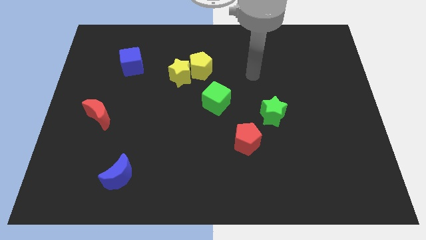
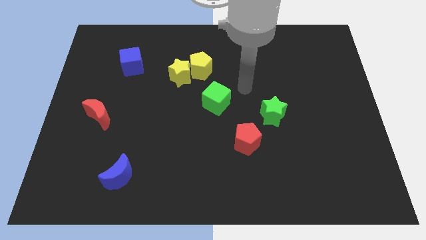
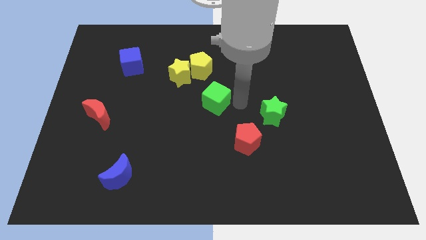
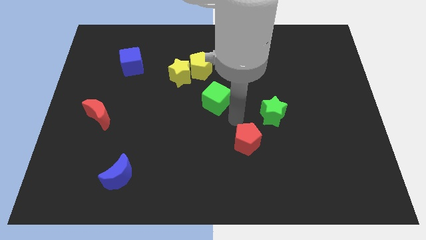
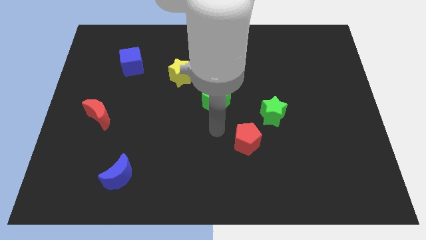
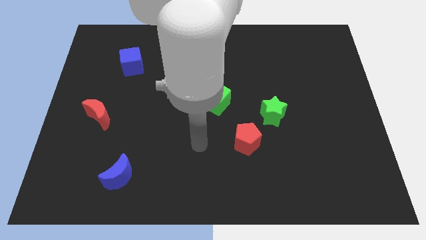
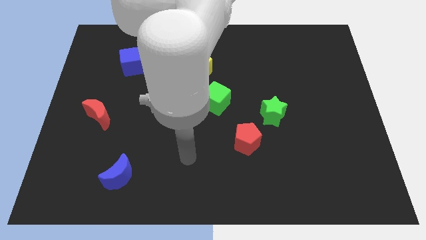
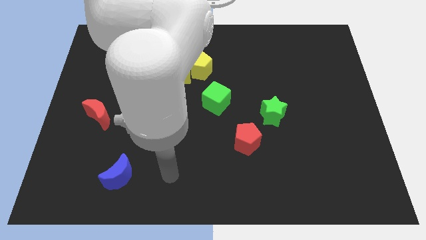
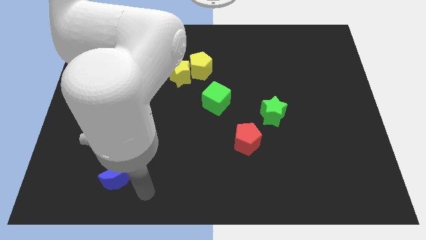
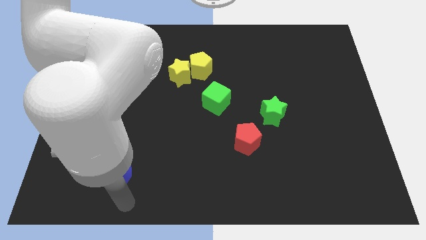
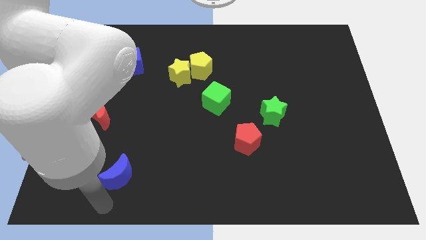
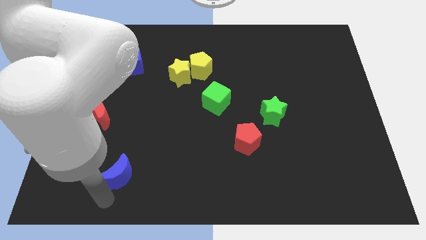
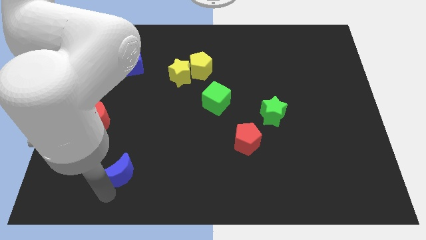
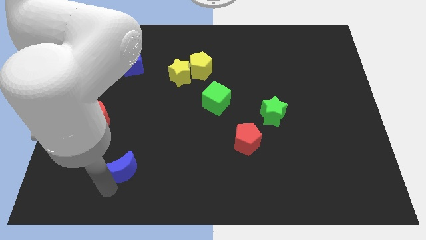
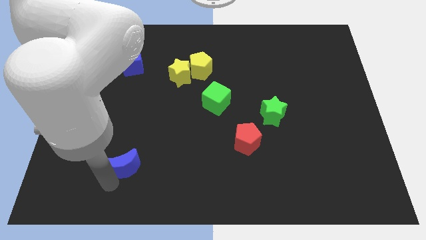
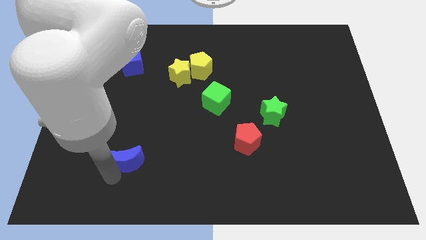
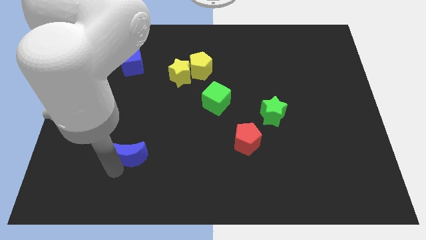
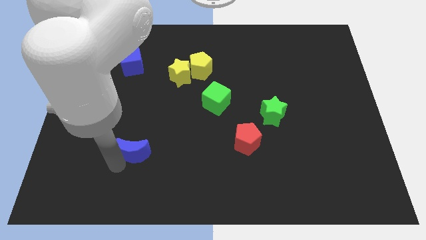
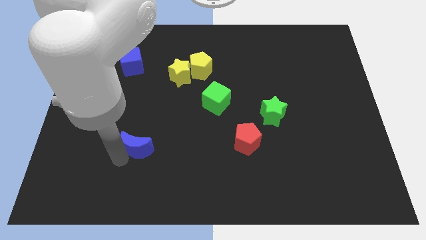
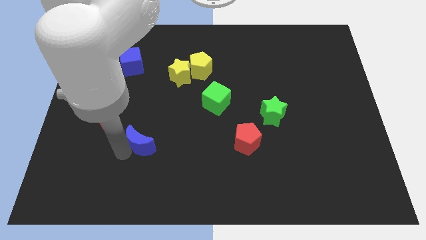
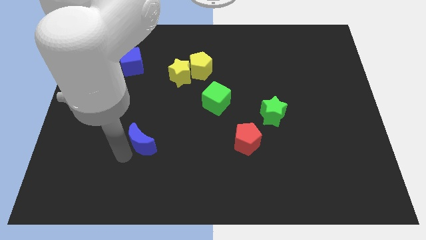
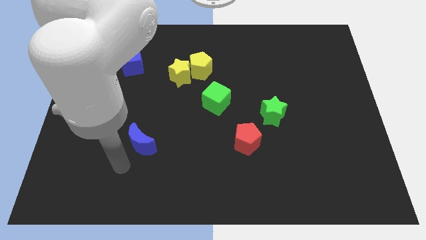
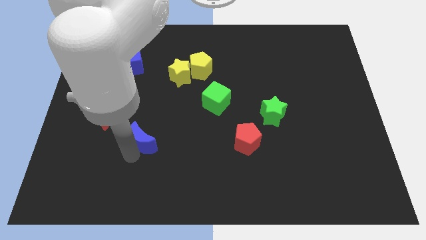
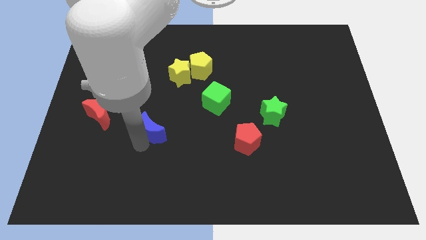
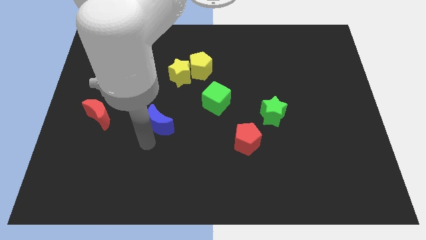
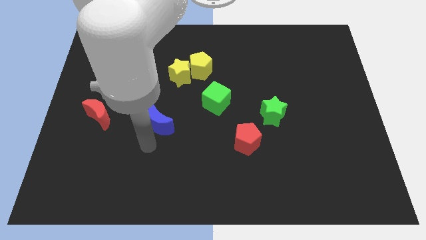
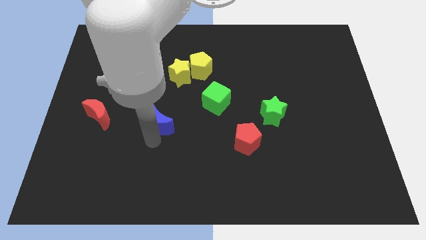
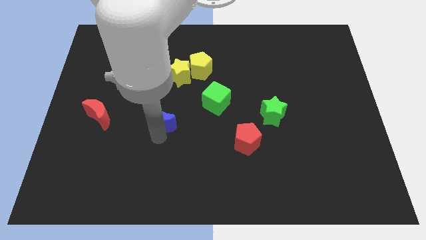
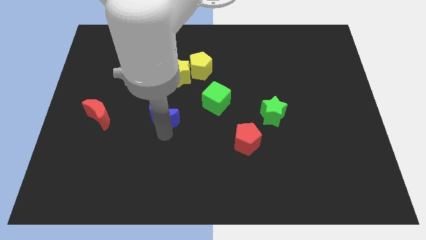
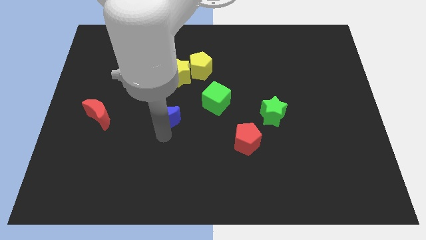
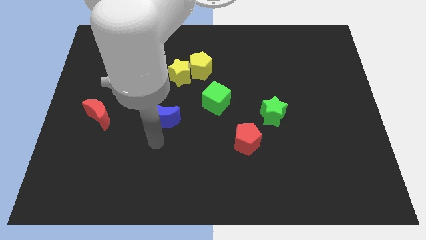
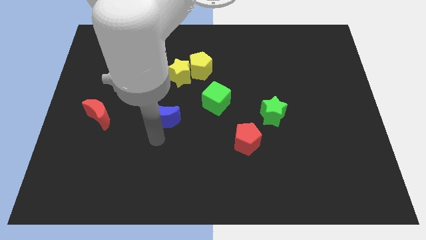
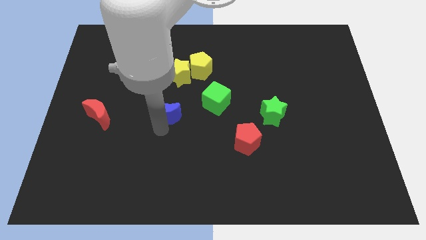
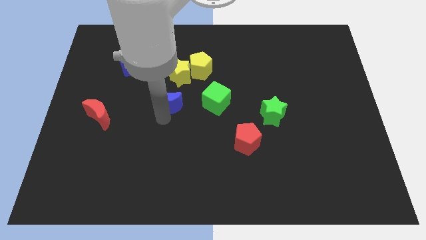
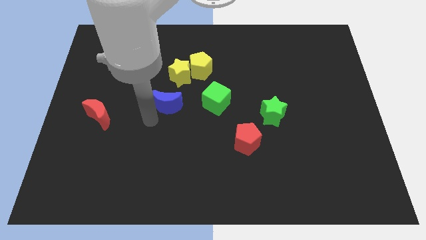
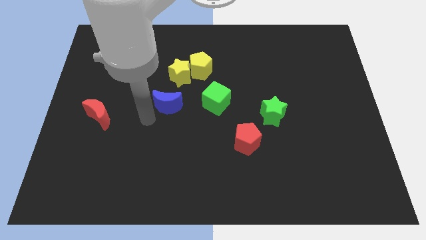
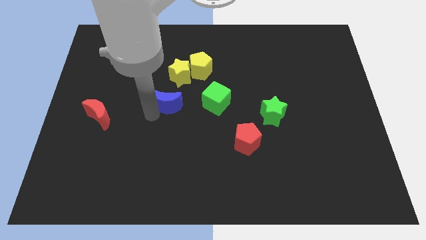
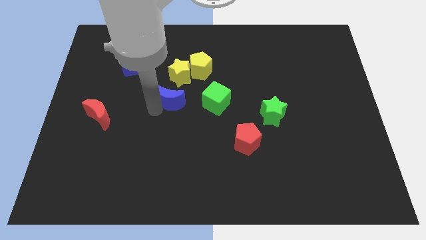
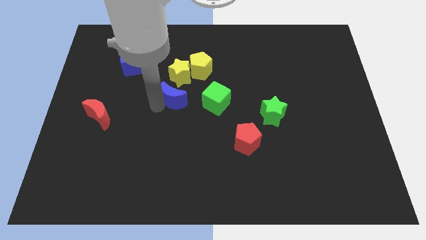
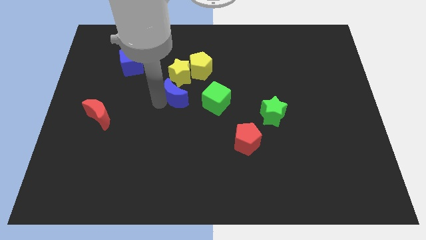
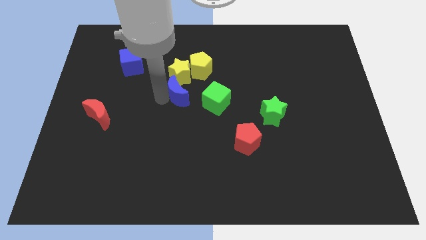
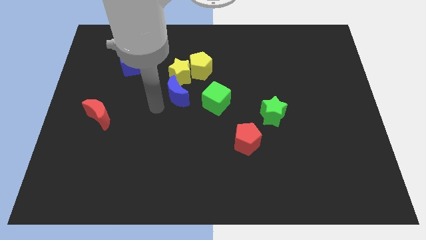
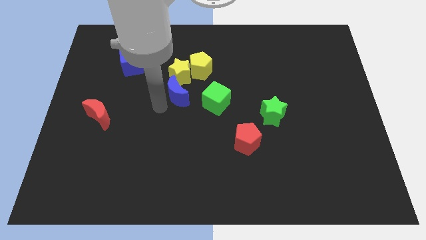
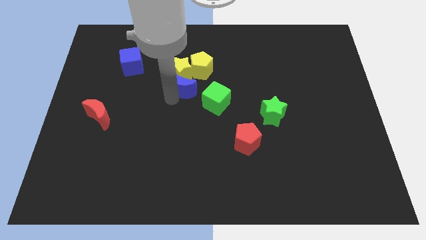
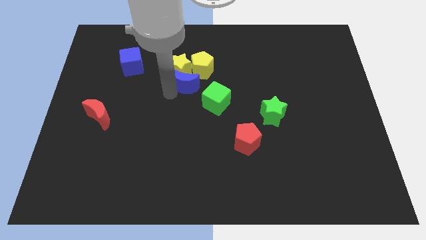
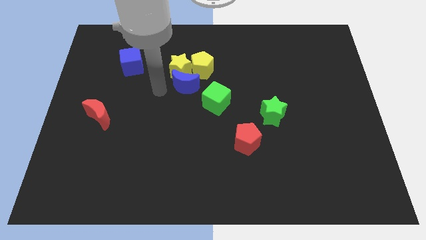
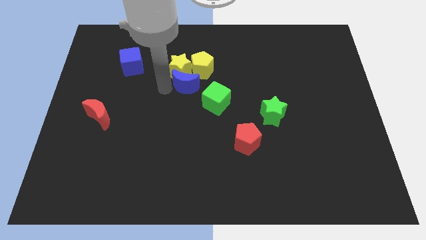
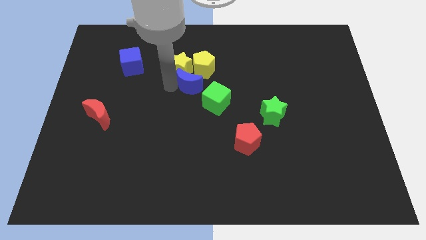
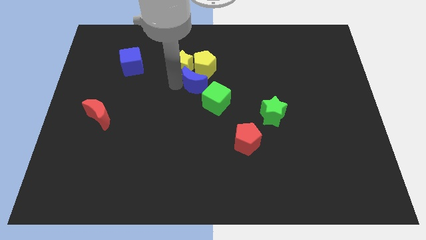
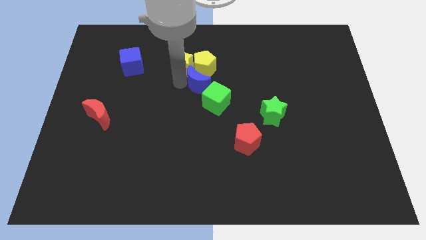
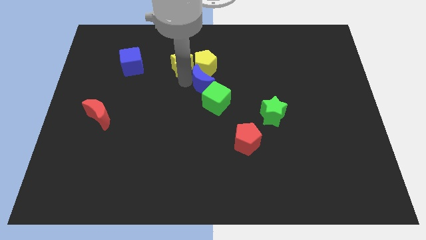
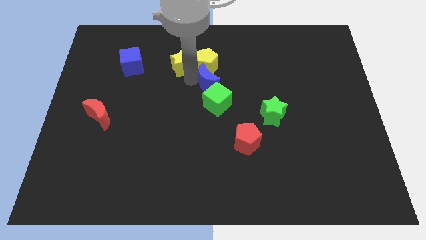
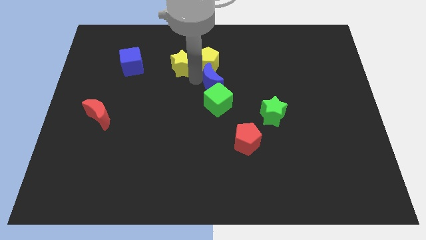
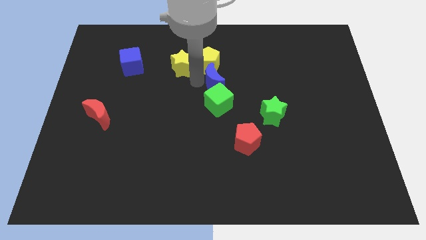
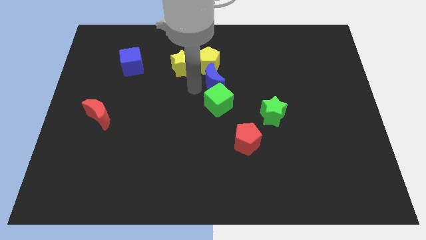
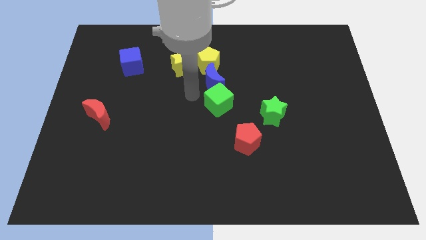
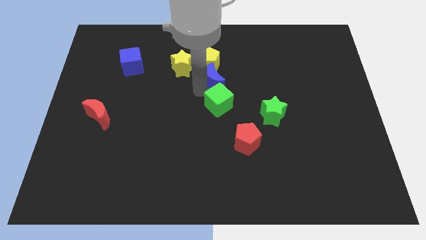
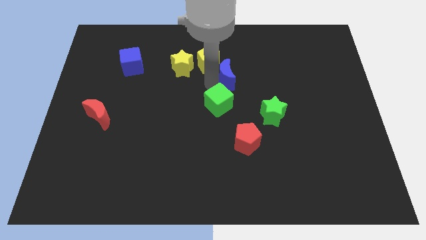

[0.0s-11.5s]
move the blue moon to the right side of the yellow pentagon

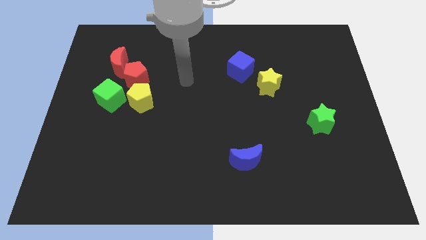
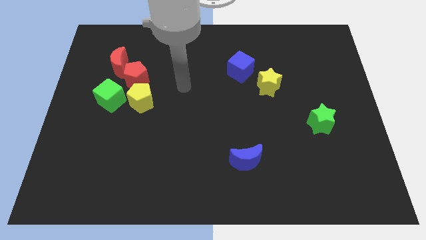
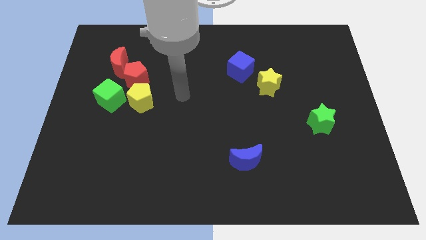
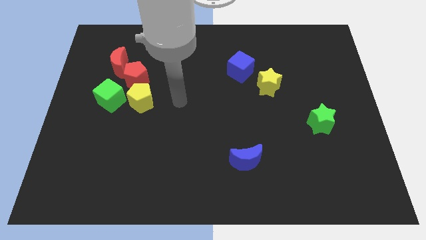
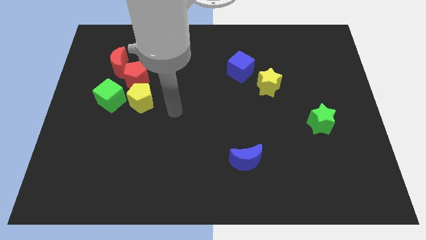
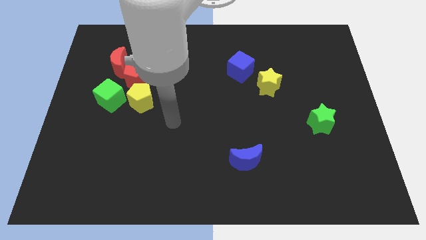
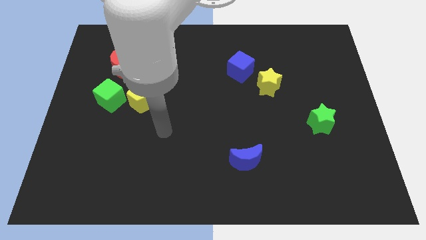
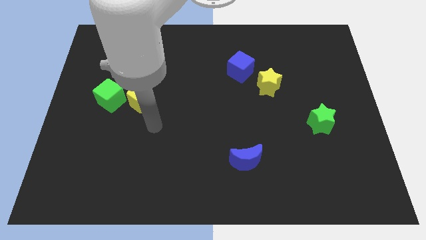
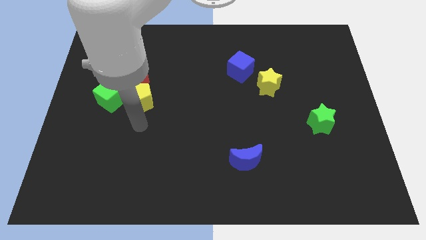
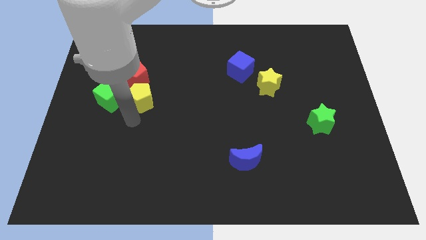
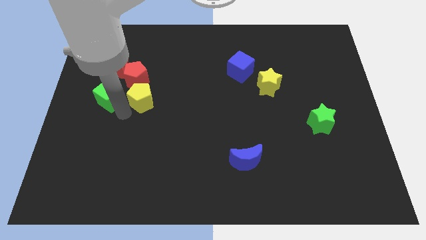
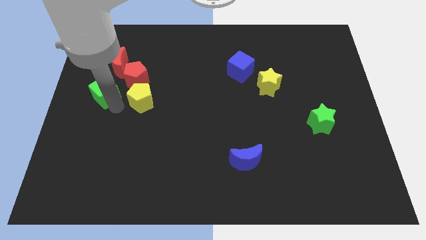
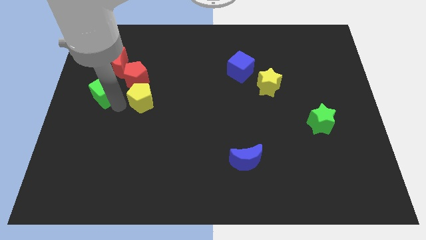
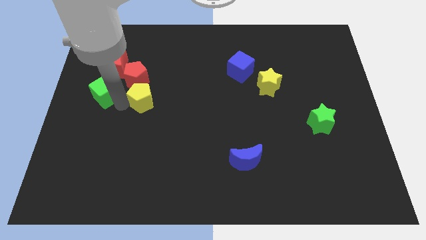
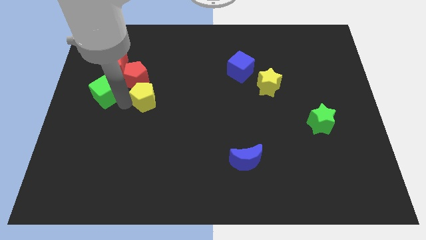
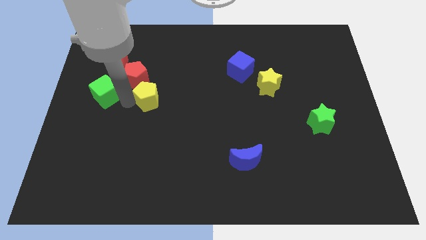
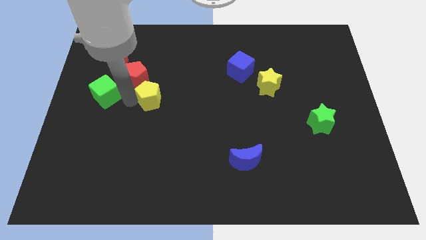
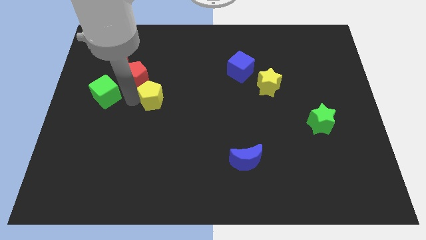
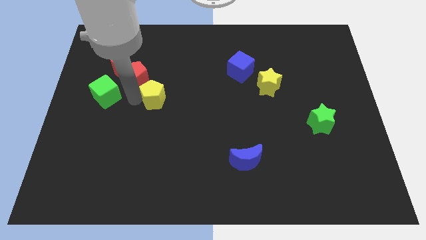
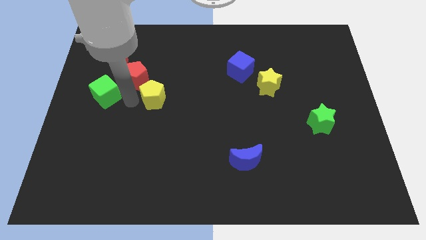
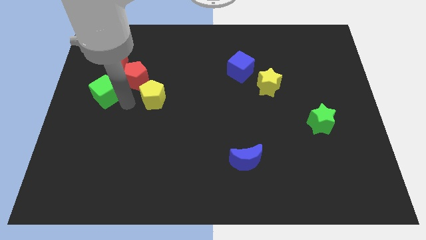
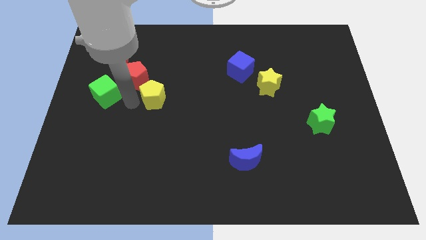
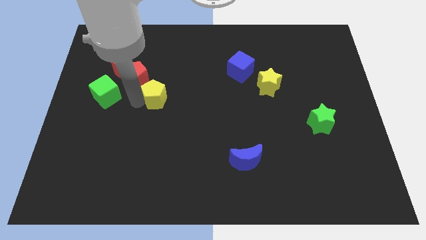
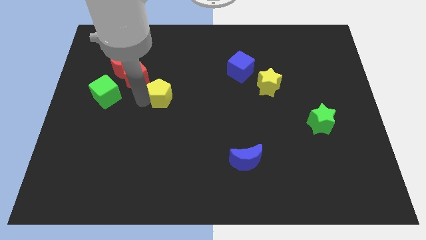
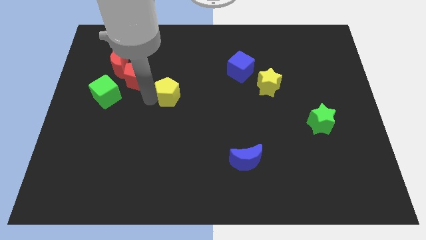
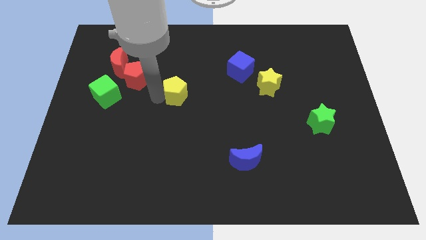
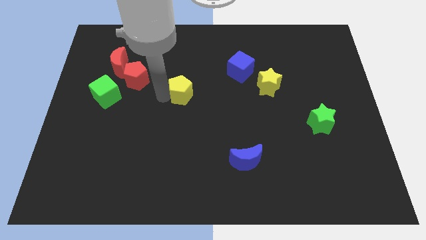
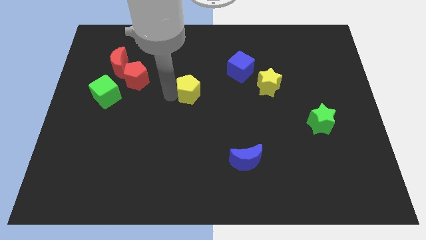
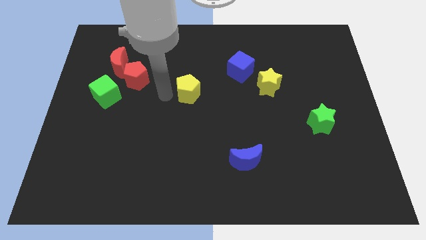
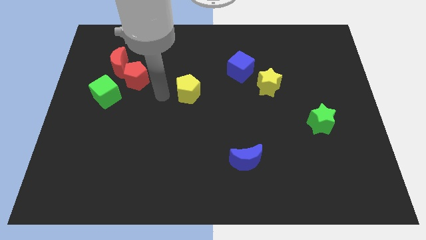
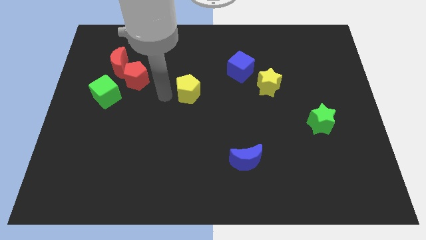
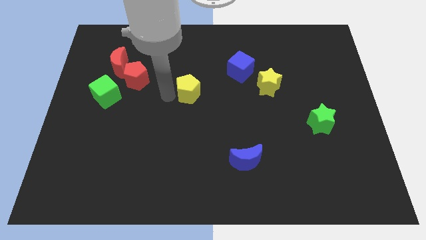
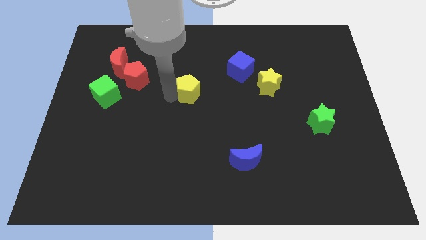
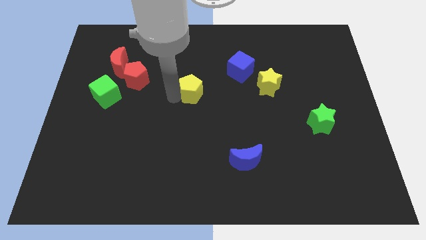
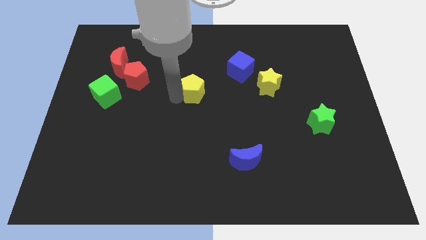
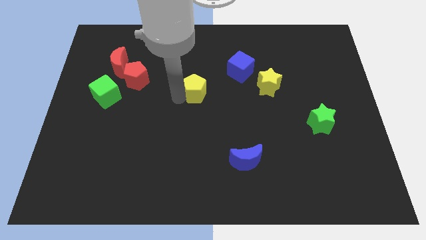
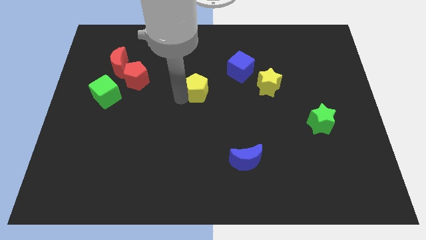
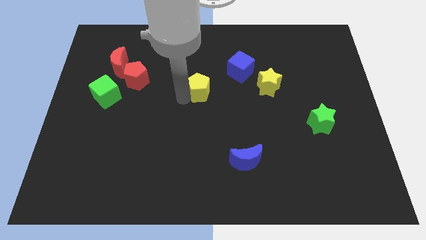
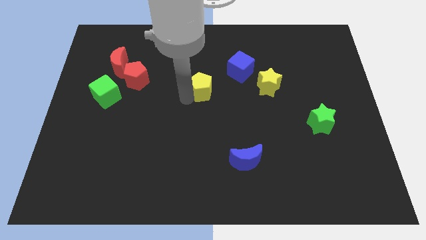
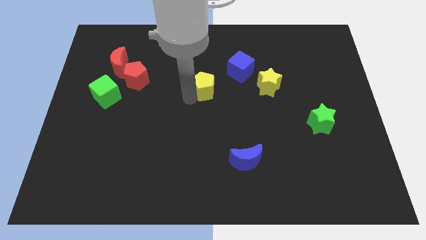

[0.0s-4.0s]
move the yellow pentagon left of the yellow star
